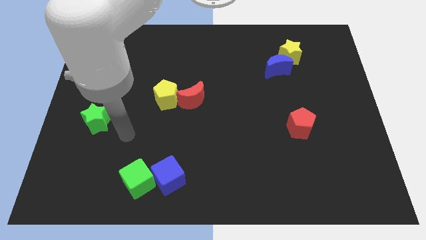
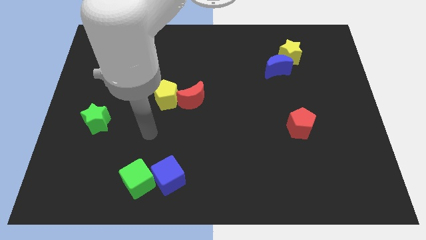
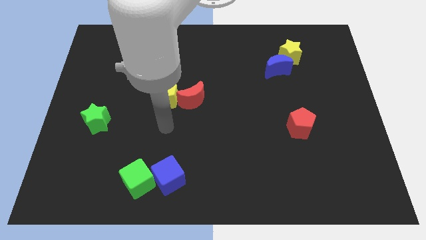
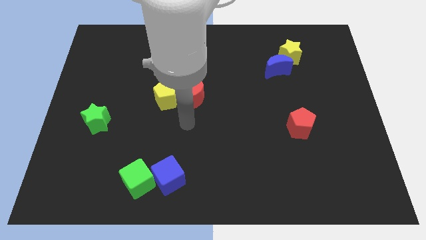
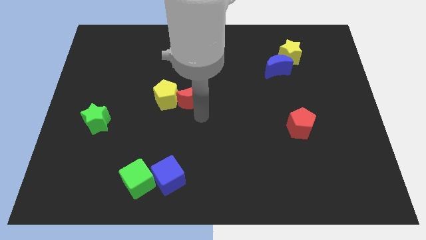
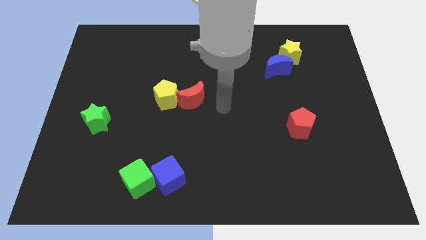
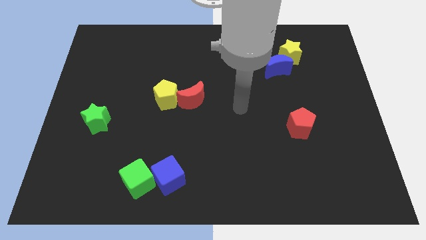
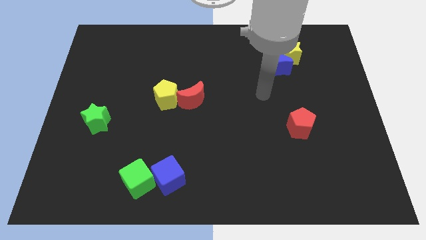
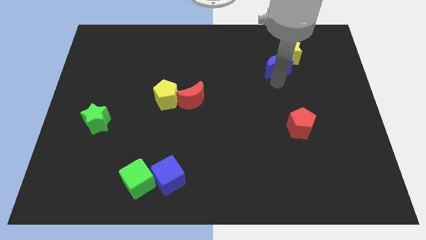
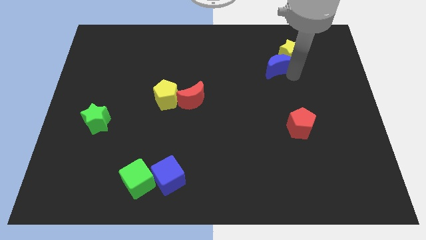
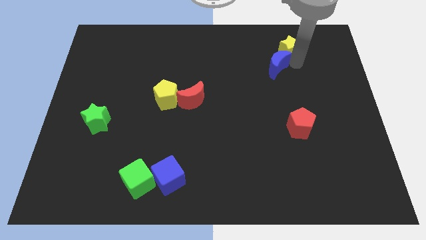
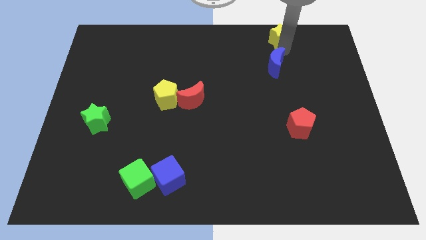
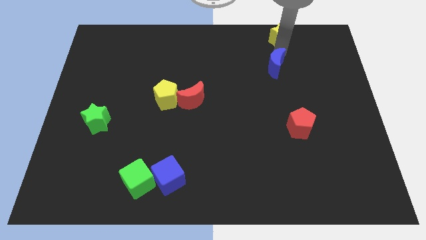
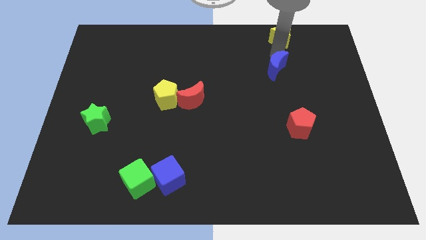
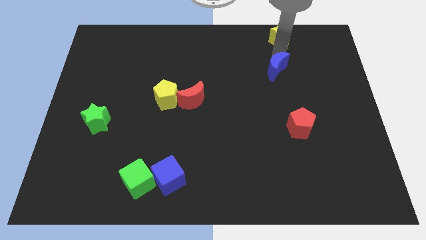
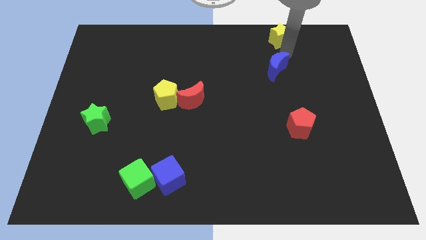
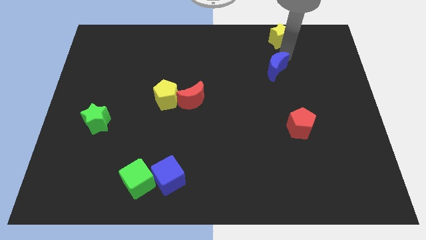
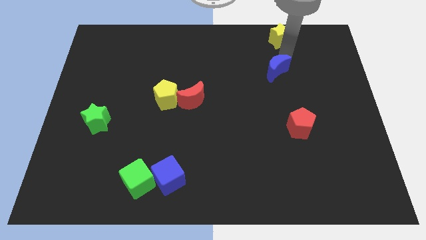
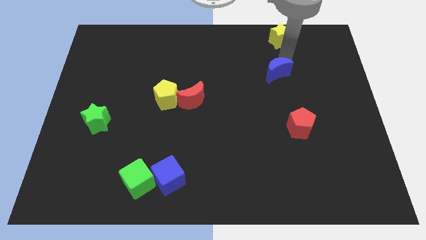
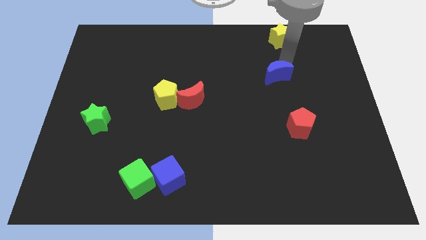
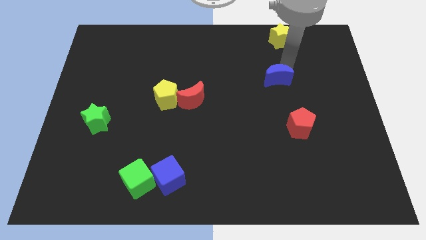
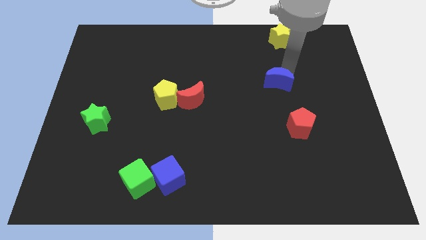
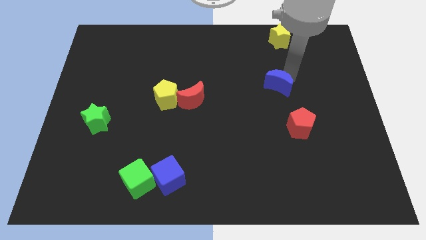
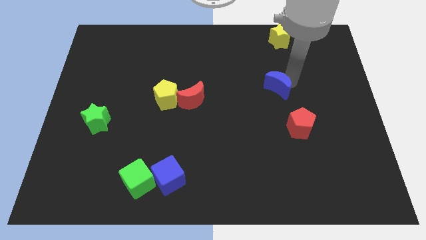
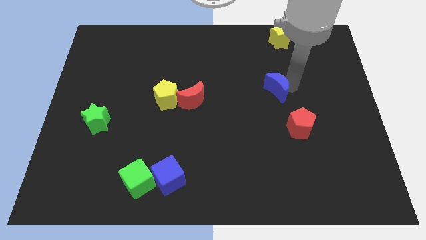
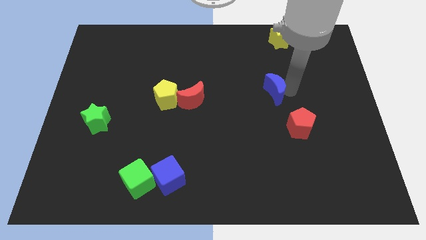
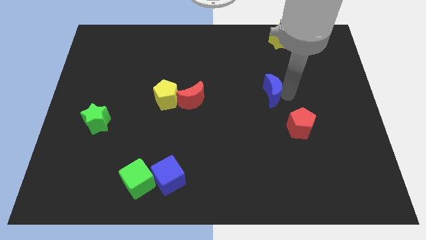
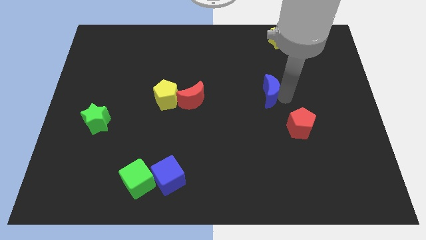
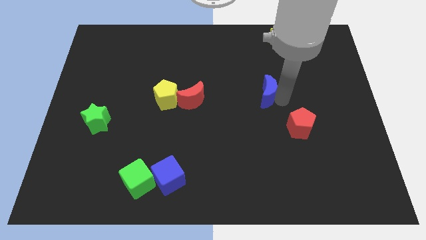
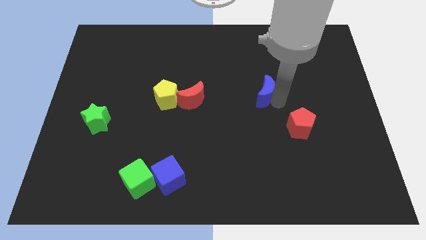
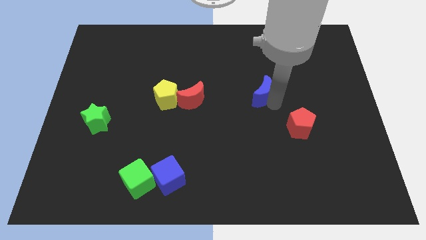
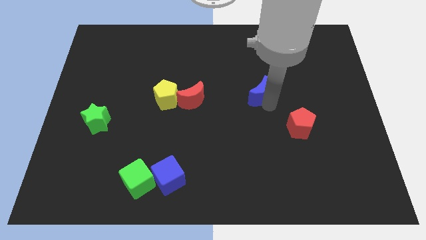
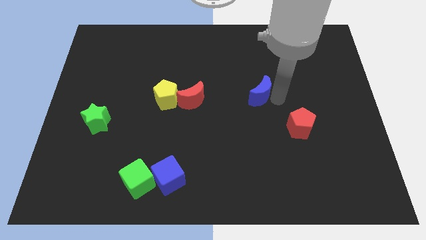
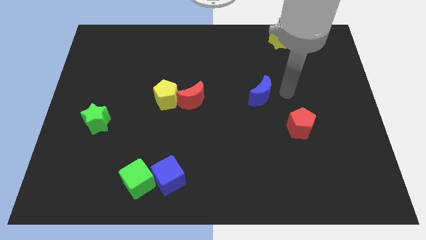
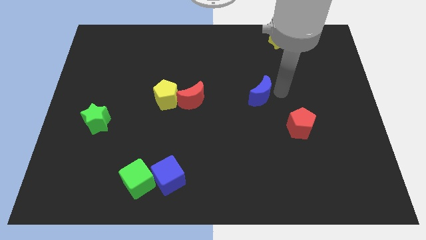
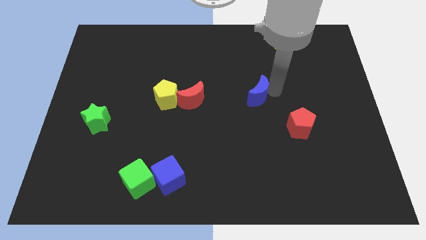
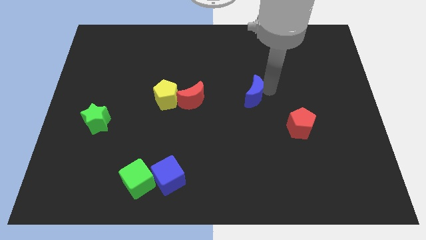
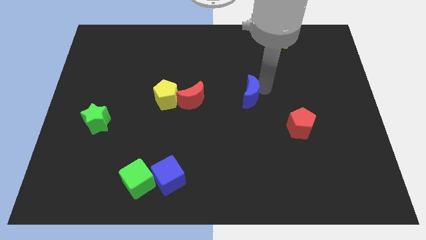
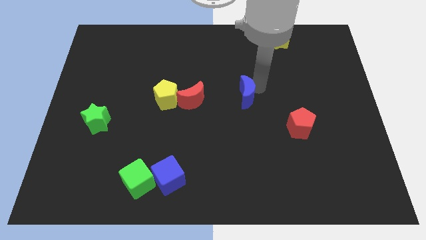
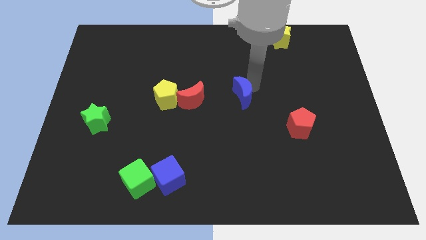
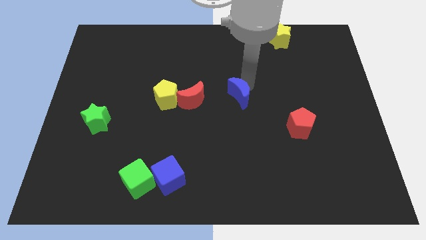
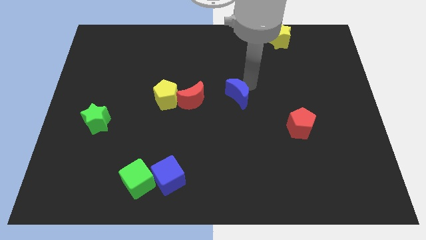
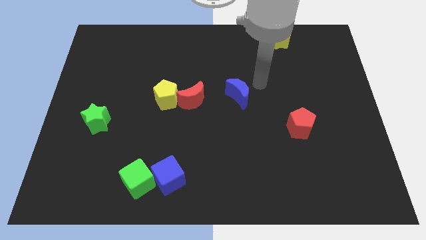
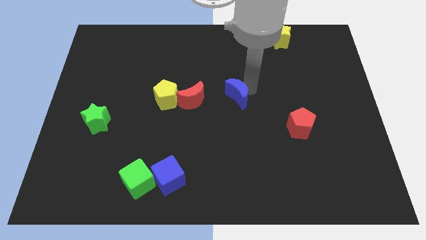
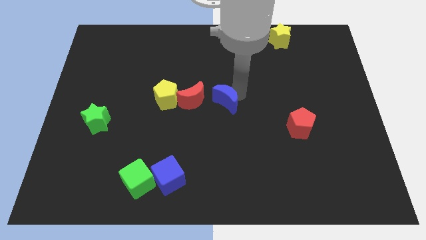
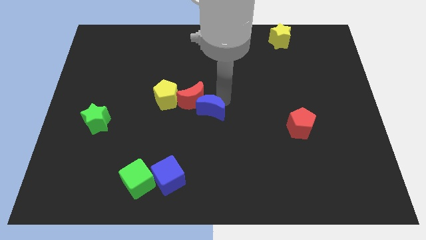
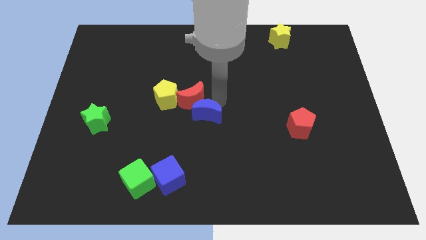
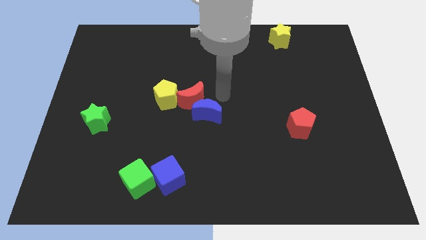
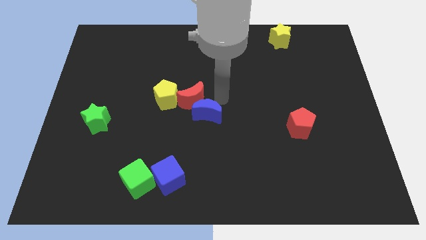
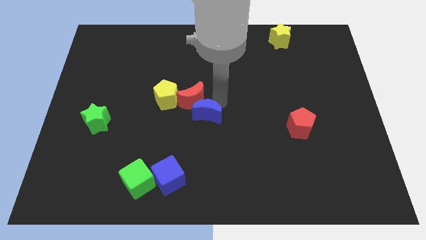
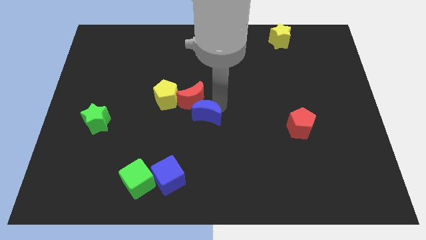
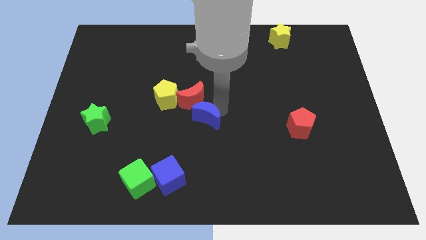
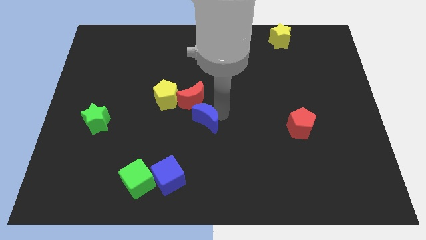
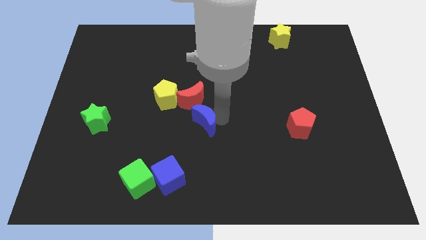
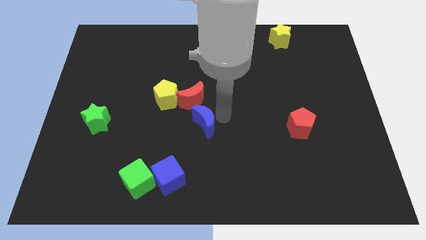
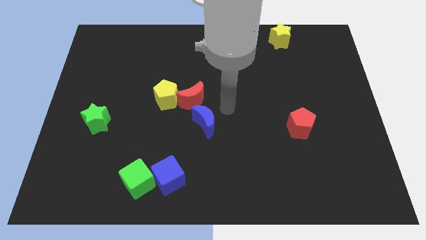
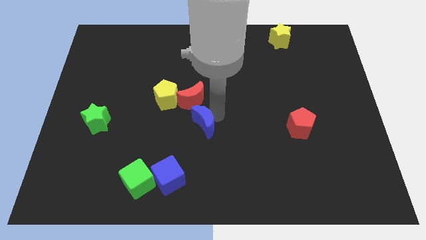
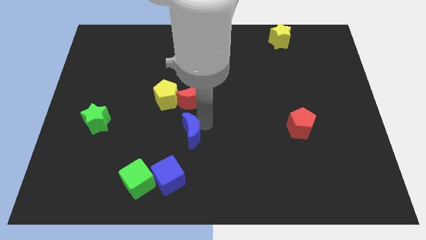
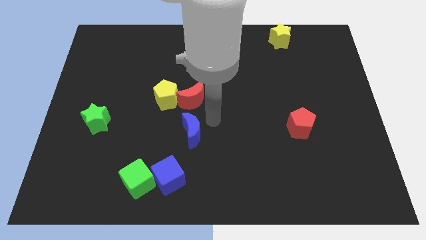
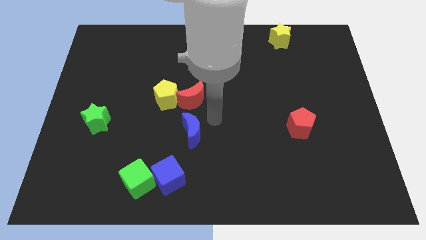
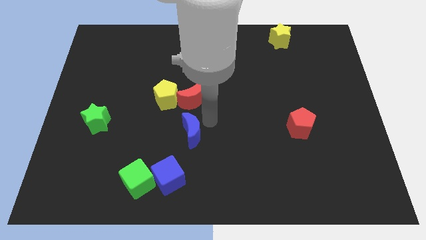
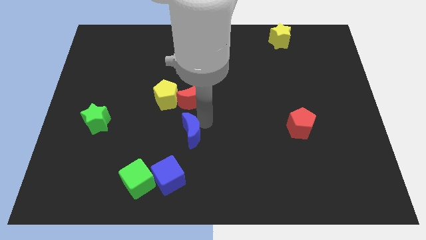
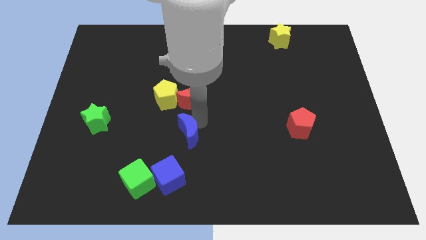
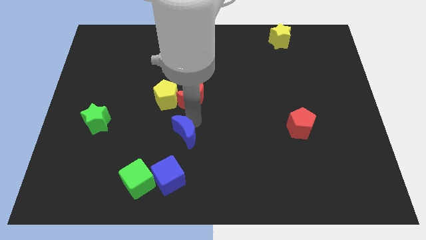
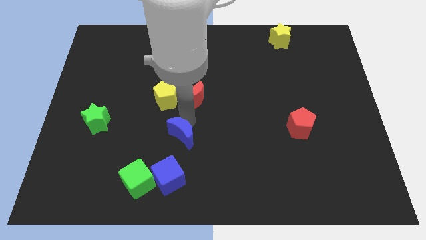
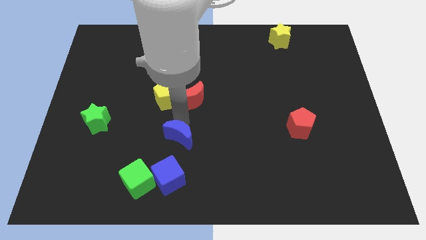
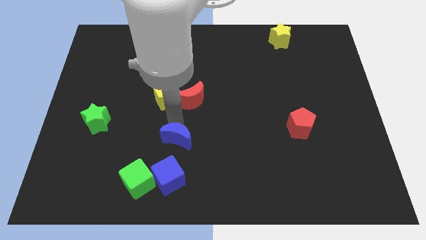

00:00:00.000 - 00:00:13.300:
slide the blue moon diagonally up and to the right of the green cube

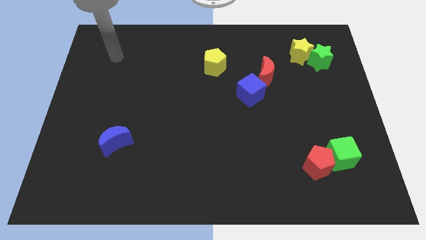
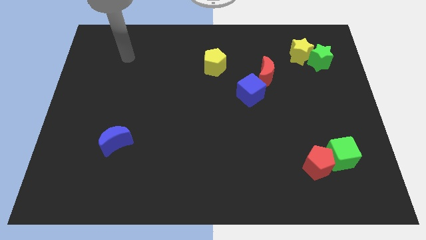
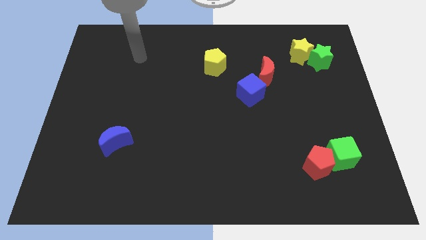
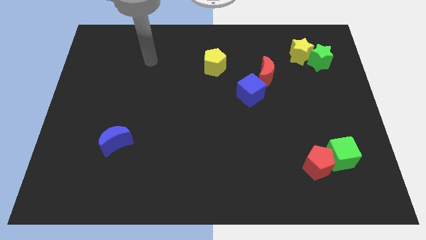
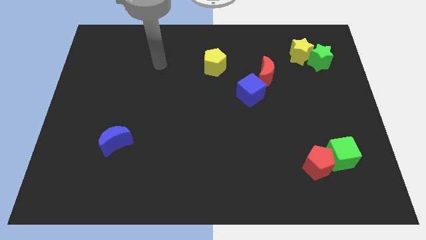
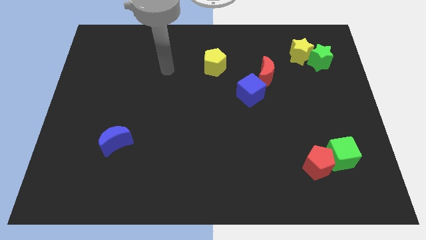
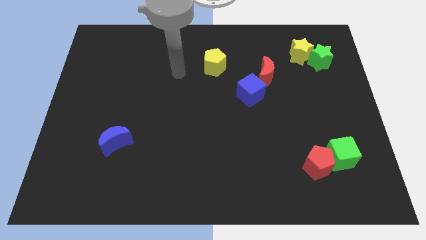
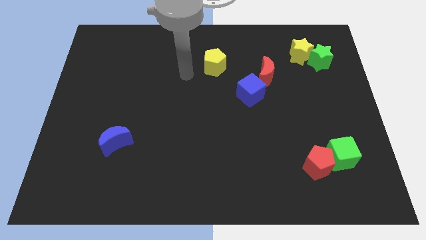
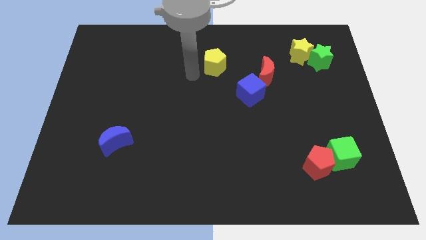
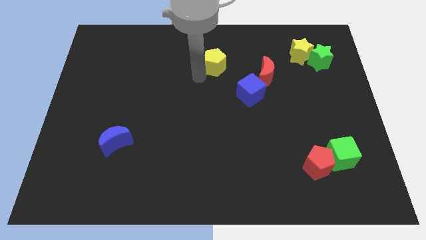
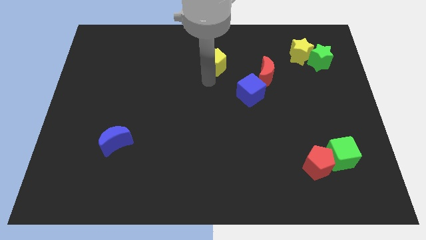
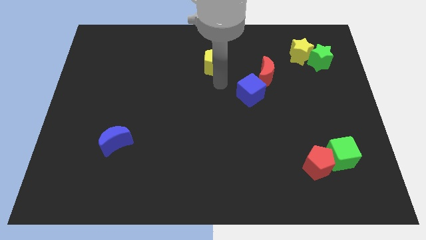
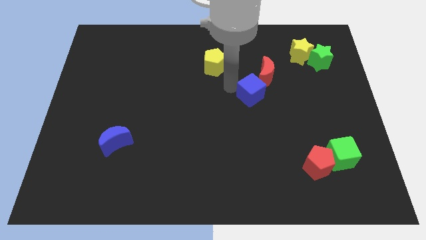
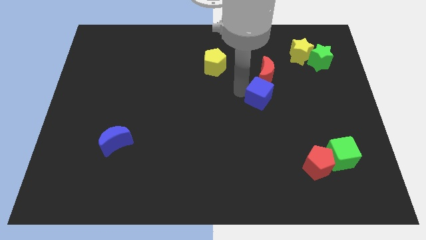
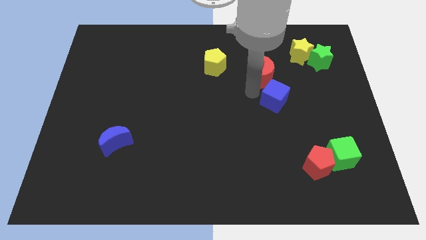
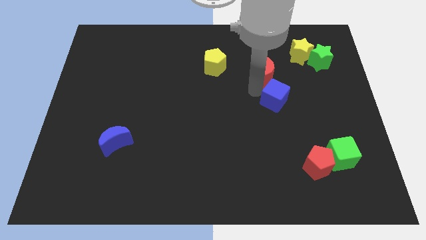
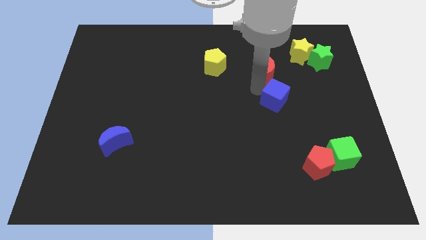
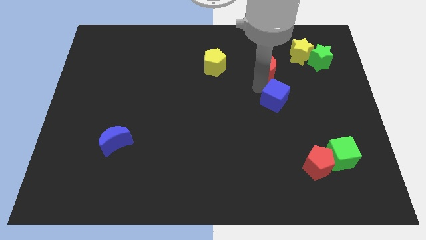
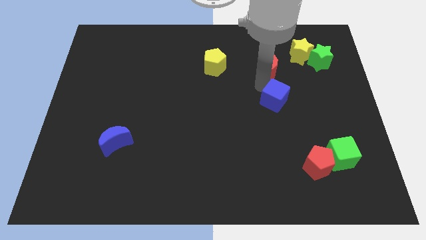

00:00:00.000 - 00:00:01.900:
push the red moon to the left side of the green star

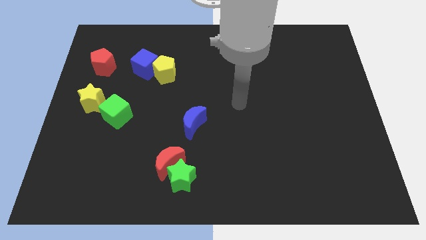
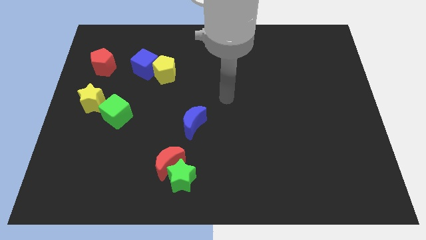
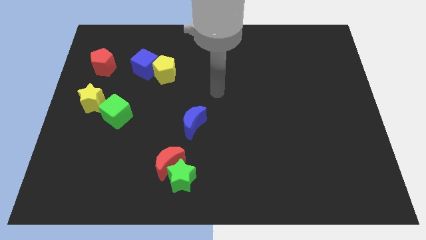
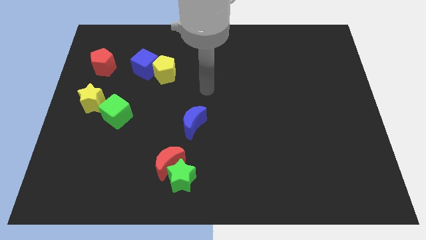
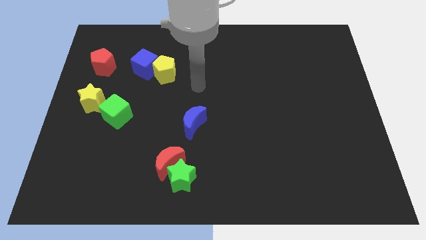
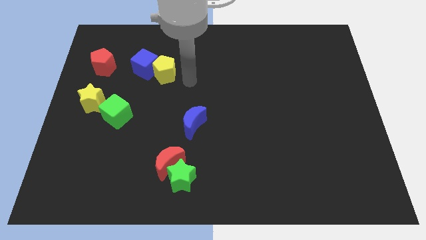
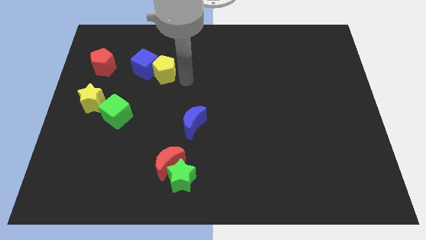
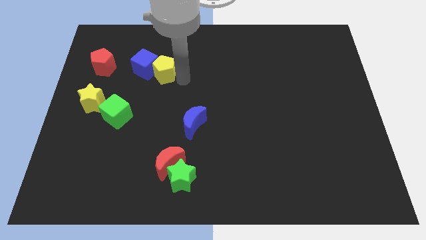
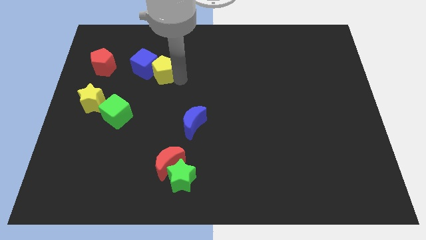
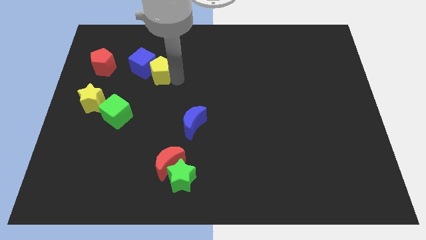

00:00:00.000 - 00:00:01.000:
put the yellow pentagon to the right of the red pentagon
